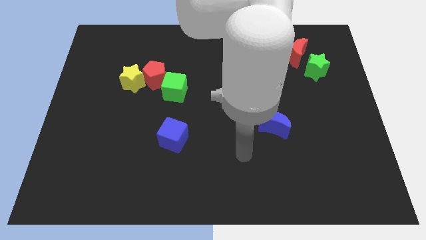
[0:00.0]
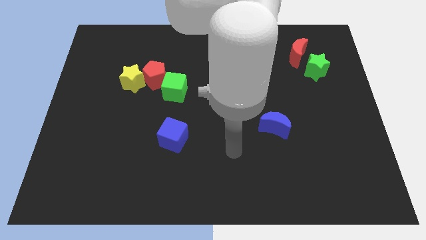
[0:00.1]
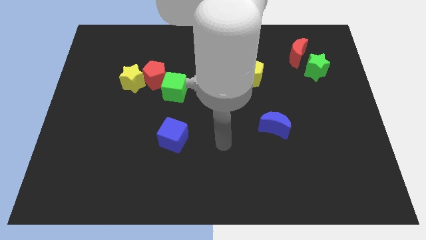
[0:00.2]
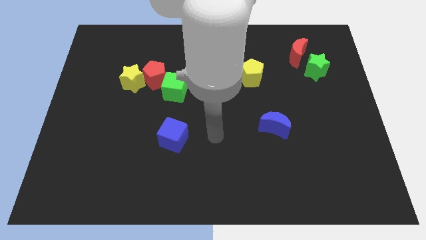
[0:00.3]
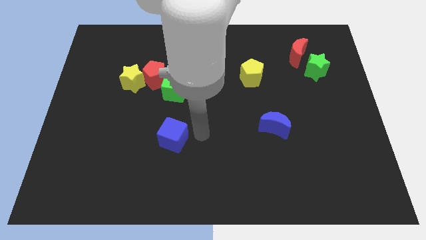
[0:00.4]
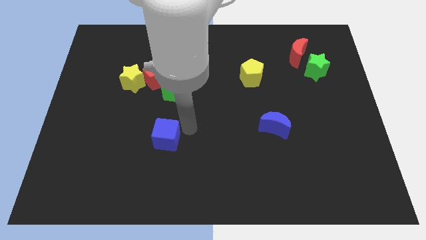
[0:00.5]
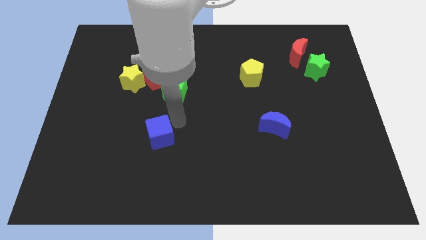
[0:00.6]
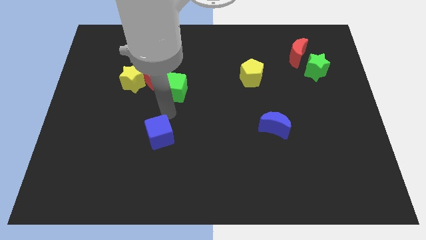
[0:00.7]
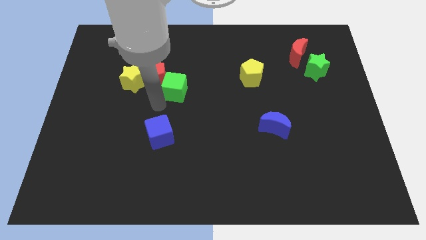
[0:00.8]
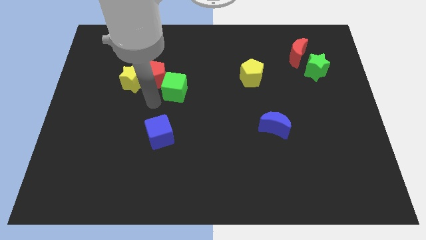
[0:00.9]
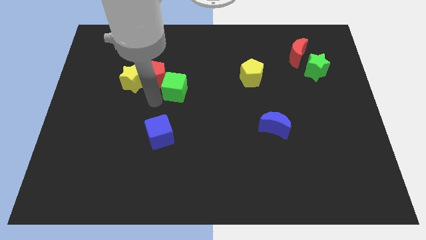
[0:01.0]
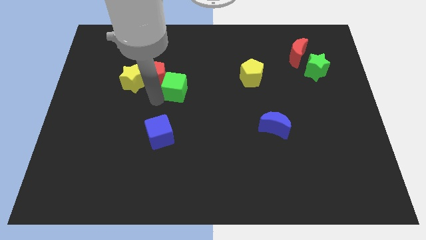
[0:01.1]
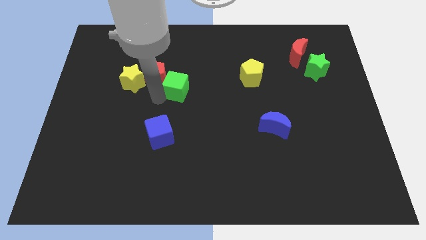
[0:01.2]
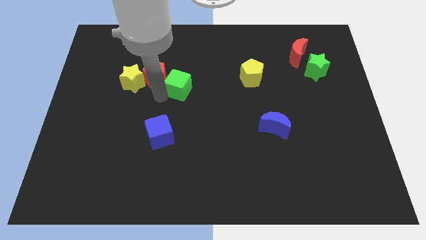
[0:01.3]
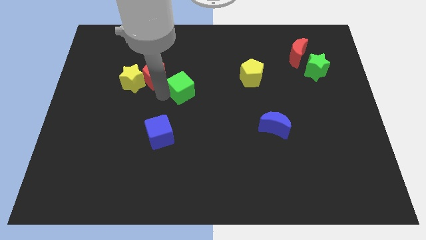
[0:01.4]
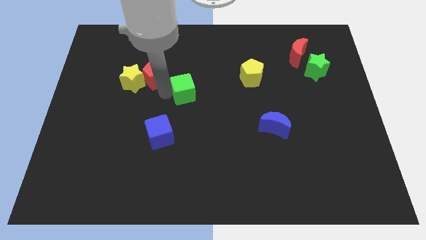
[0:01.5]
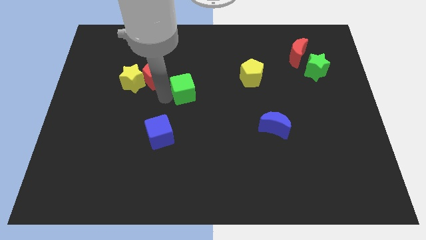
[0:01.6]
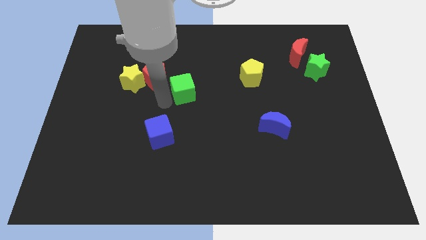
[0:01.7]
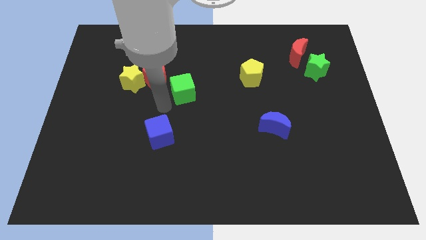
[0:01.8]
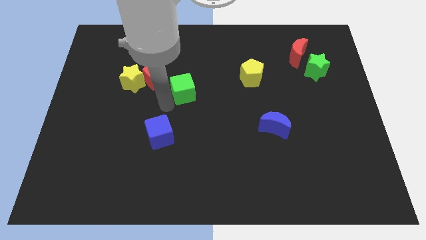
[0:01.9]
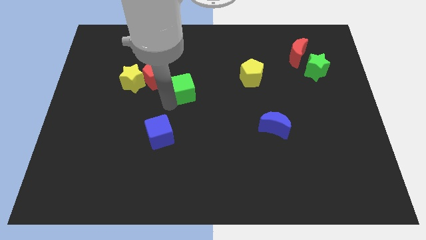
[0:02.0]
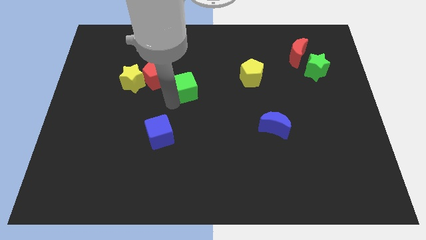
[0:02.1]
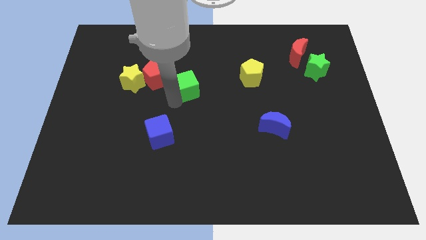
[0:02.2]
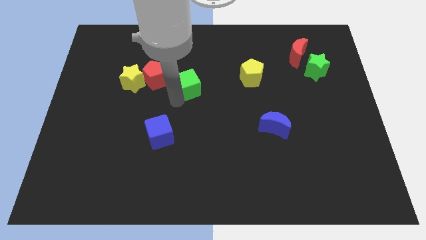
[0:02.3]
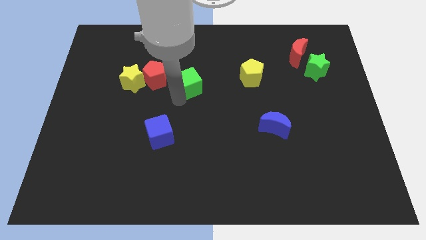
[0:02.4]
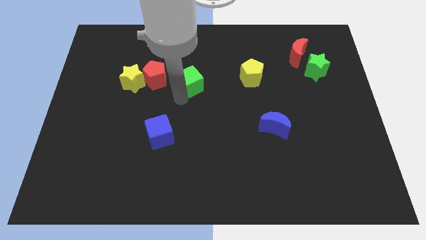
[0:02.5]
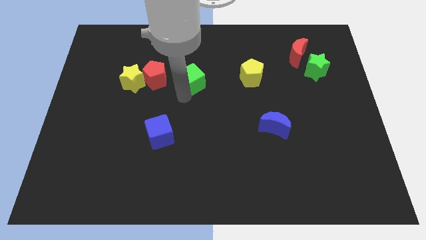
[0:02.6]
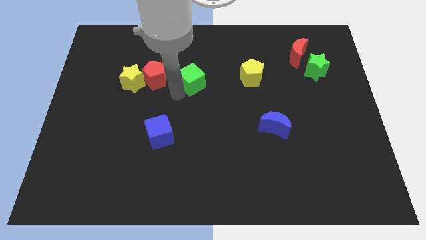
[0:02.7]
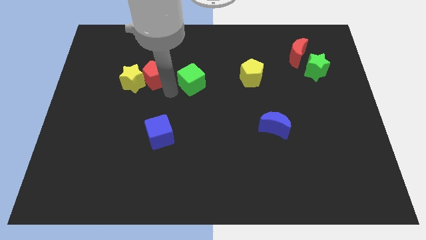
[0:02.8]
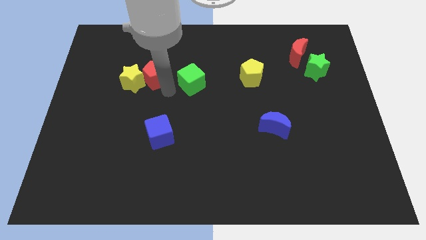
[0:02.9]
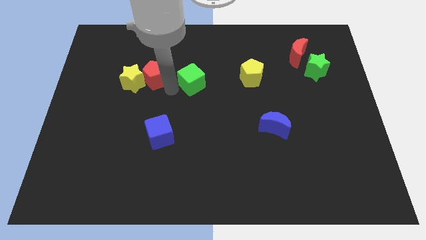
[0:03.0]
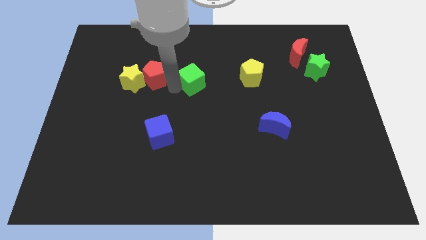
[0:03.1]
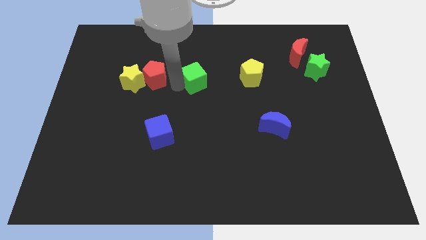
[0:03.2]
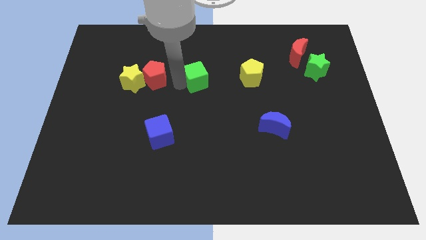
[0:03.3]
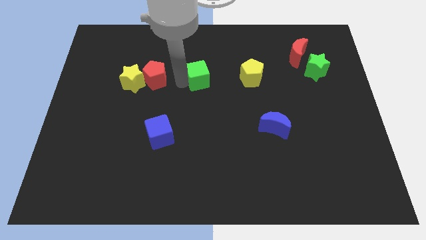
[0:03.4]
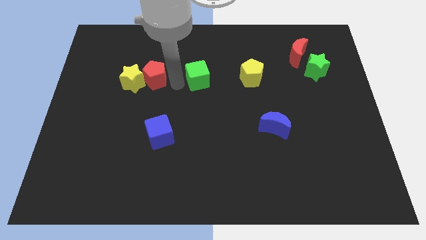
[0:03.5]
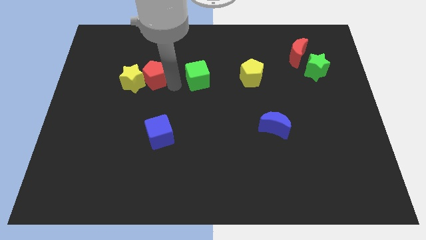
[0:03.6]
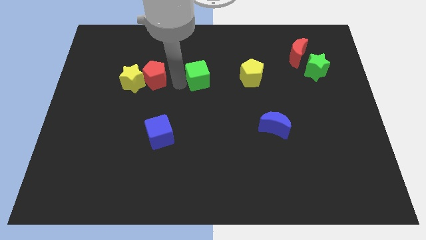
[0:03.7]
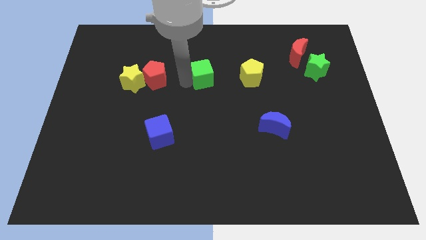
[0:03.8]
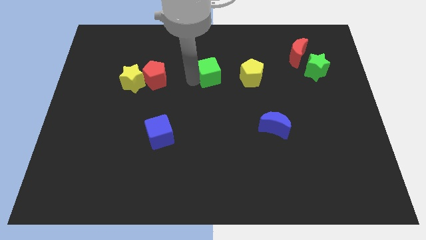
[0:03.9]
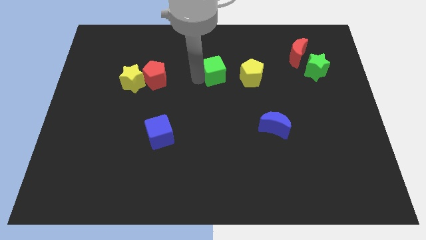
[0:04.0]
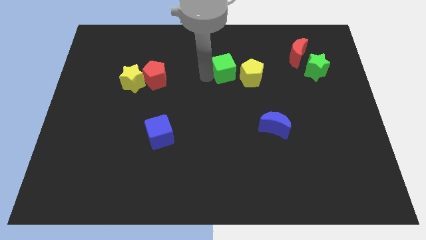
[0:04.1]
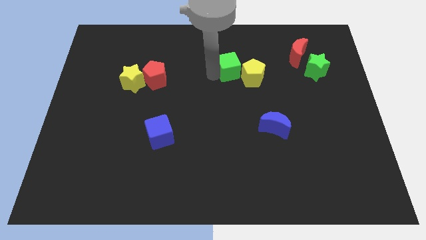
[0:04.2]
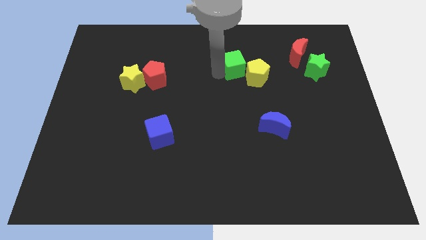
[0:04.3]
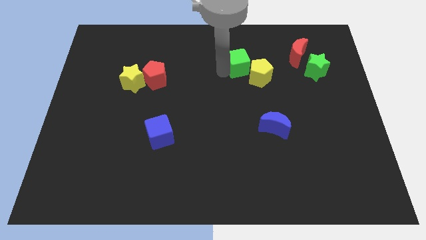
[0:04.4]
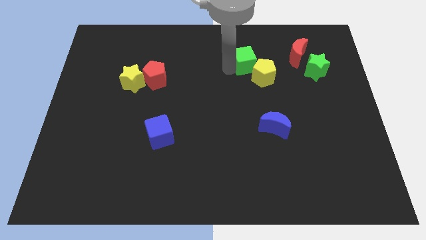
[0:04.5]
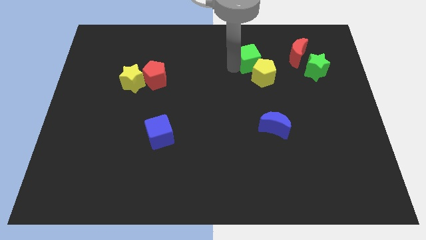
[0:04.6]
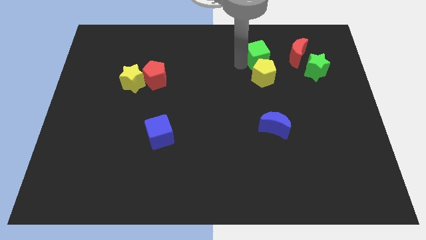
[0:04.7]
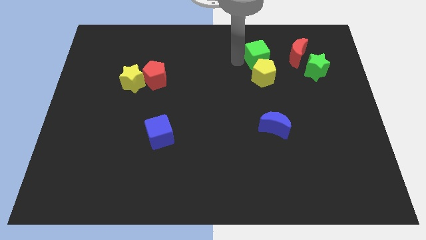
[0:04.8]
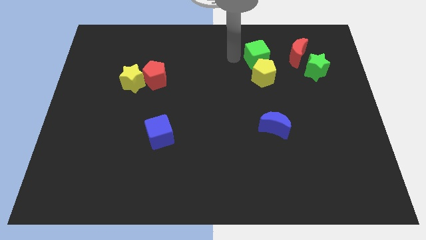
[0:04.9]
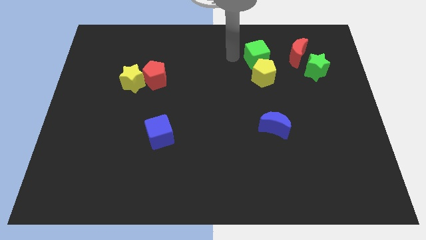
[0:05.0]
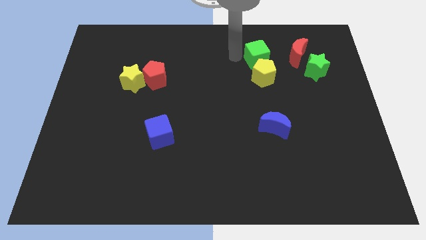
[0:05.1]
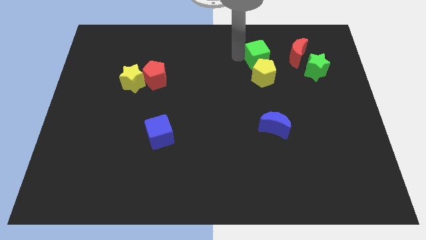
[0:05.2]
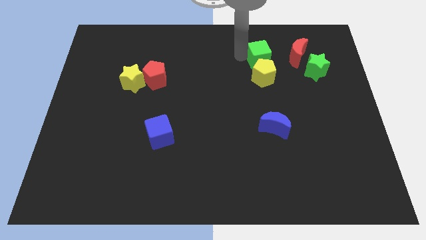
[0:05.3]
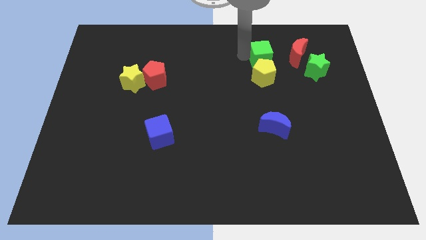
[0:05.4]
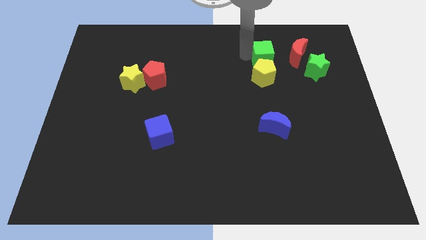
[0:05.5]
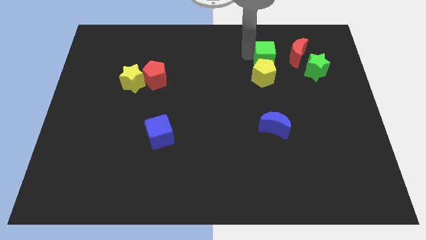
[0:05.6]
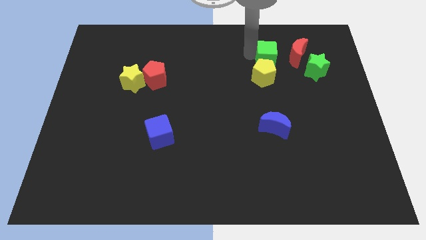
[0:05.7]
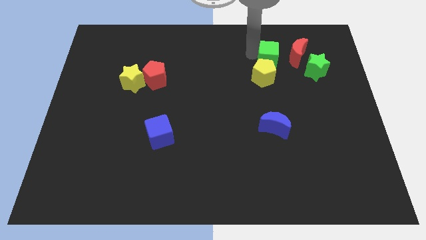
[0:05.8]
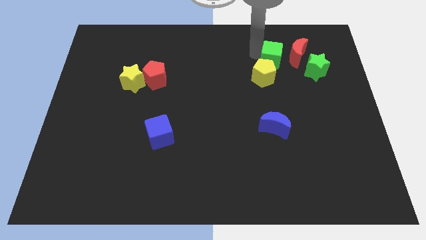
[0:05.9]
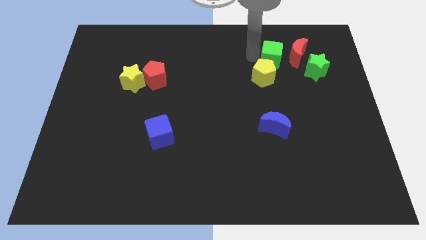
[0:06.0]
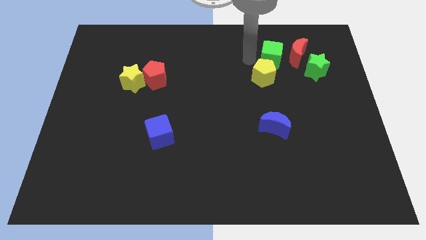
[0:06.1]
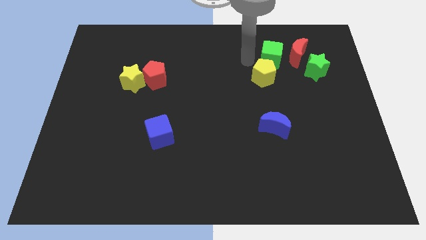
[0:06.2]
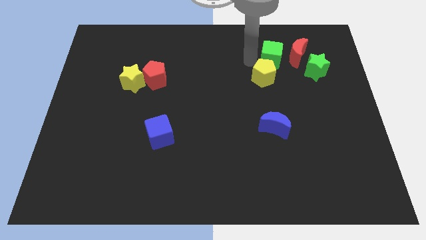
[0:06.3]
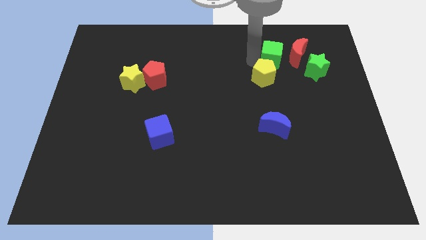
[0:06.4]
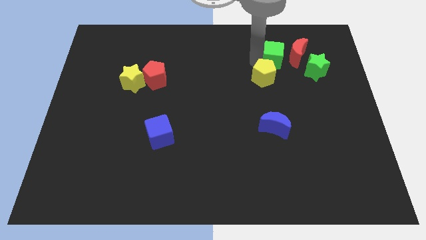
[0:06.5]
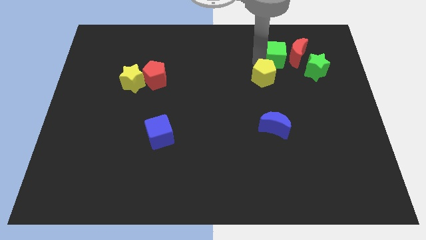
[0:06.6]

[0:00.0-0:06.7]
put the green cube close to the red moon
